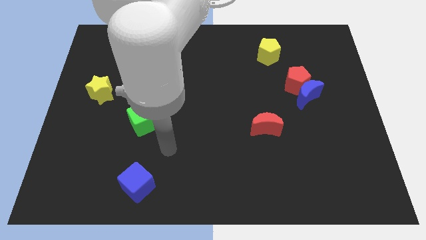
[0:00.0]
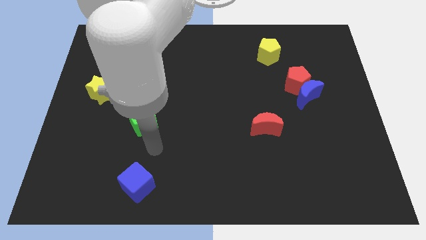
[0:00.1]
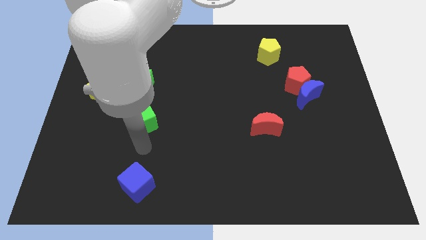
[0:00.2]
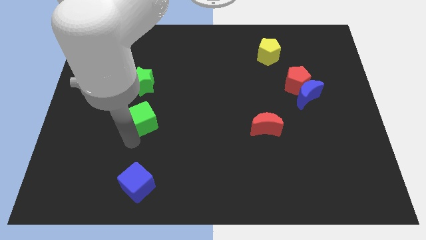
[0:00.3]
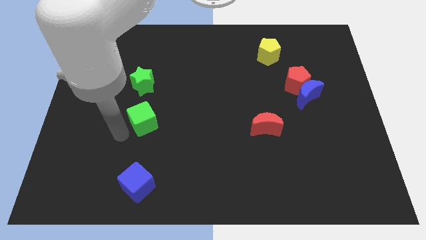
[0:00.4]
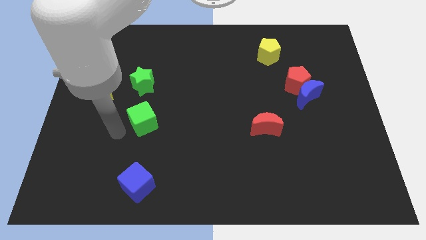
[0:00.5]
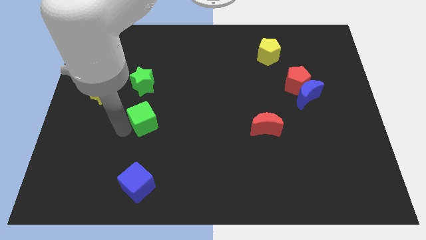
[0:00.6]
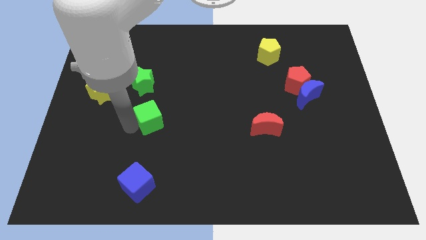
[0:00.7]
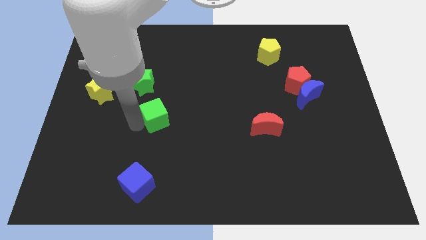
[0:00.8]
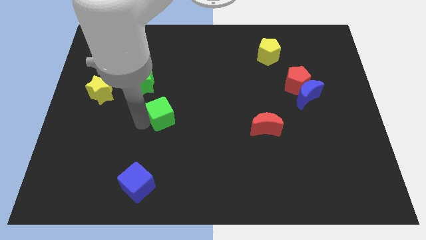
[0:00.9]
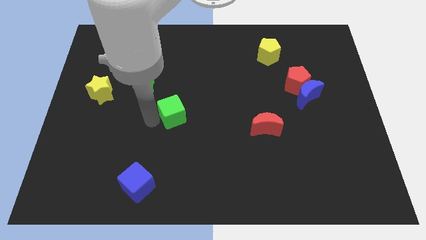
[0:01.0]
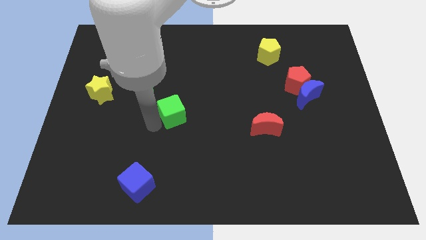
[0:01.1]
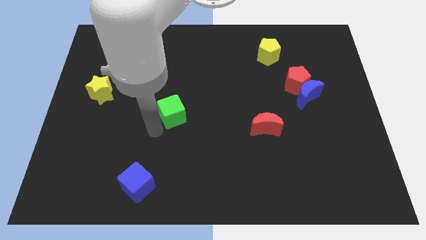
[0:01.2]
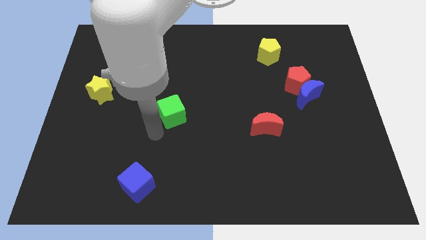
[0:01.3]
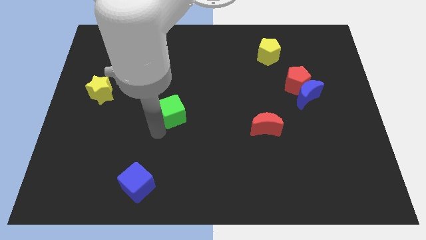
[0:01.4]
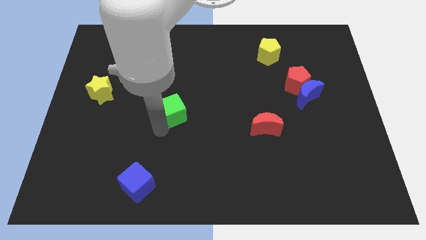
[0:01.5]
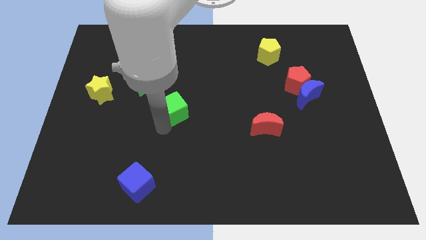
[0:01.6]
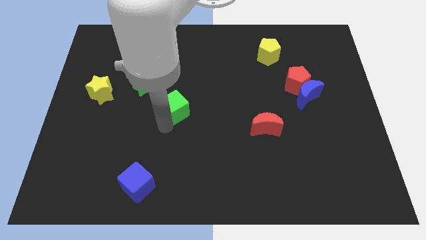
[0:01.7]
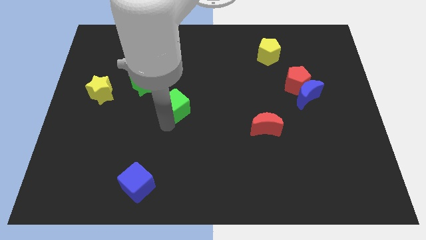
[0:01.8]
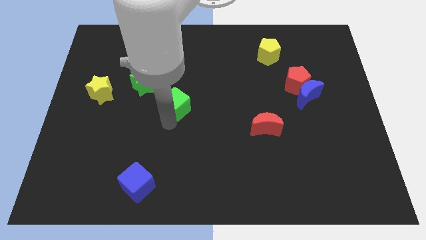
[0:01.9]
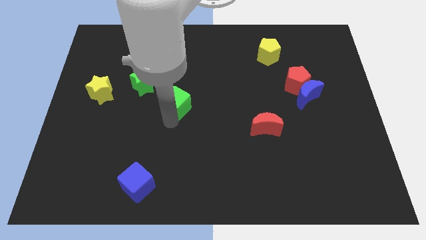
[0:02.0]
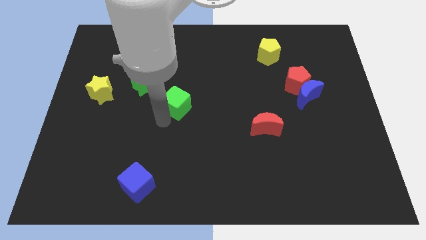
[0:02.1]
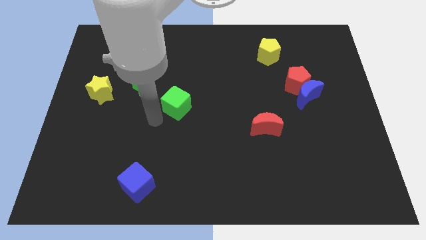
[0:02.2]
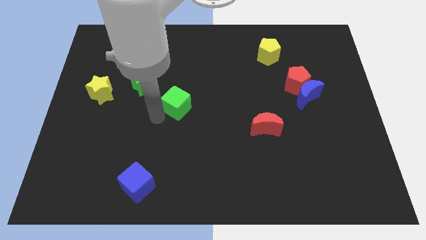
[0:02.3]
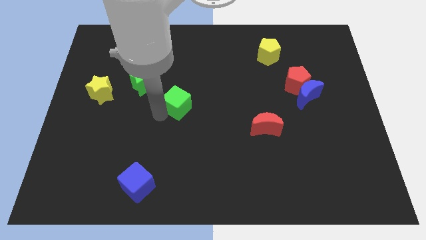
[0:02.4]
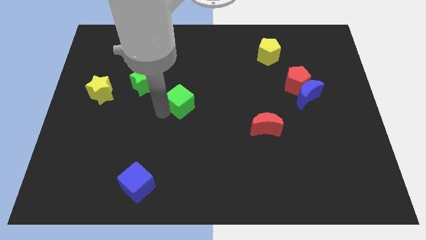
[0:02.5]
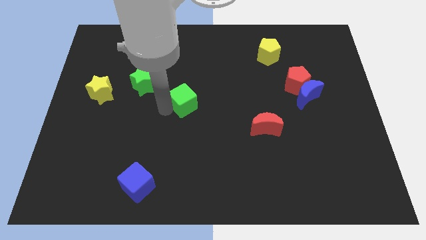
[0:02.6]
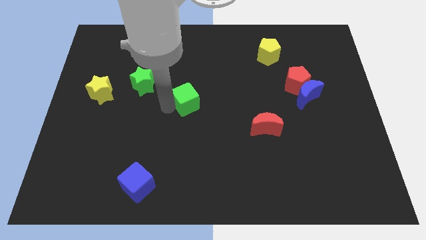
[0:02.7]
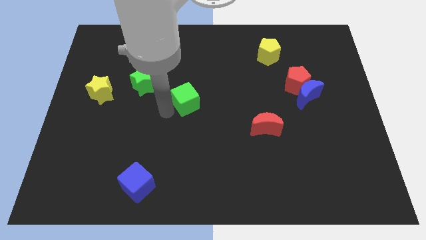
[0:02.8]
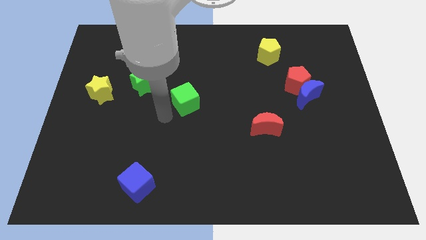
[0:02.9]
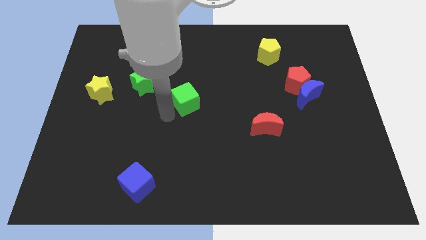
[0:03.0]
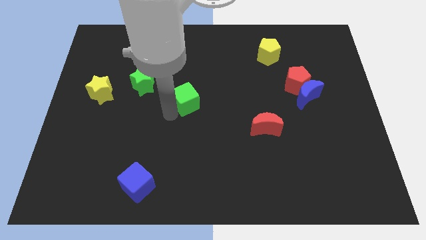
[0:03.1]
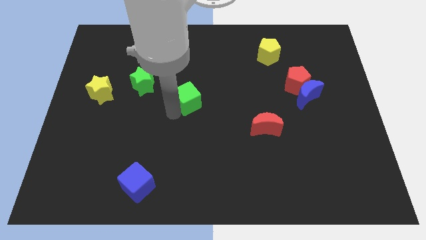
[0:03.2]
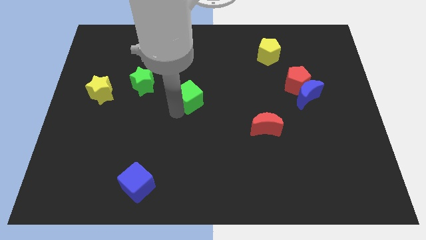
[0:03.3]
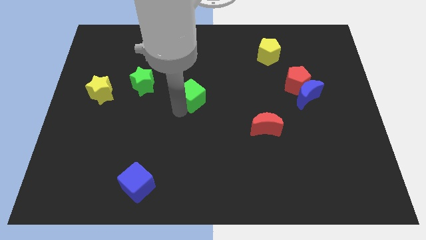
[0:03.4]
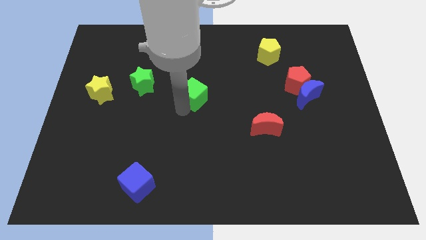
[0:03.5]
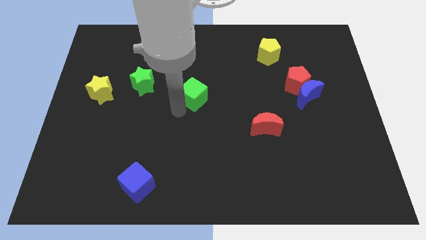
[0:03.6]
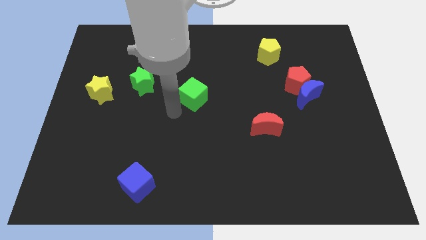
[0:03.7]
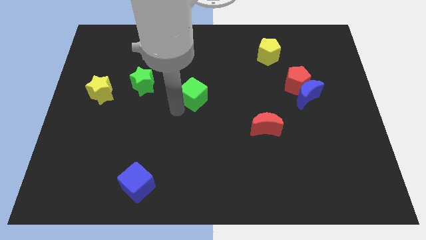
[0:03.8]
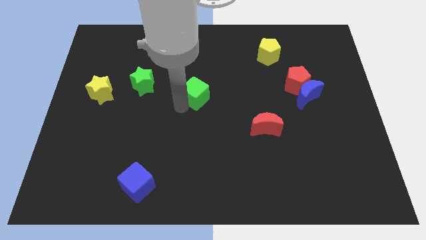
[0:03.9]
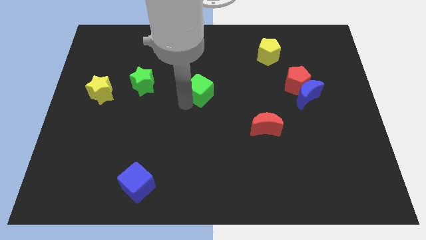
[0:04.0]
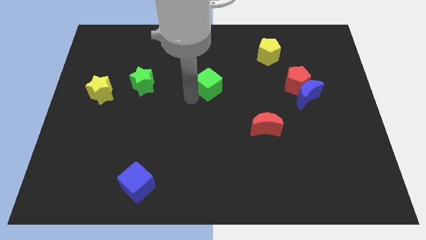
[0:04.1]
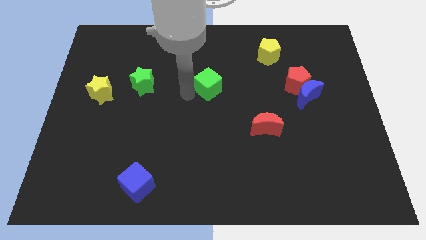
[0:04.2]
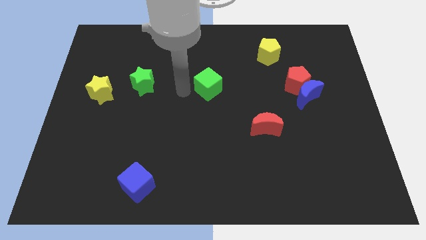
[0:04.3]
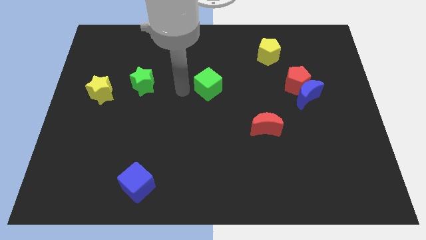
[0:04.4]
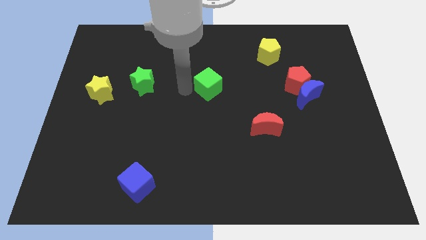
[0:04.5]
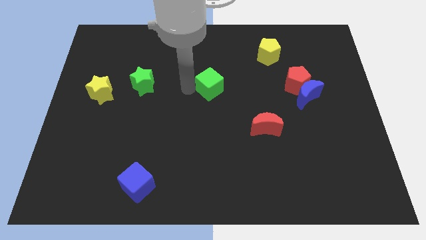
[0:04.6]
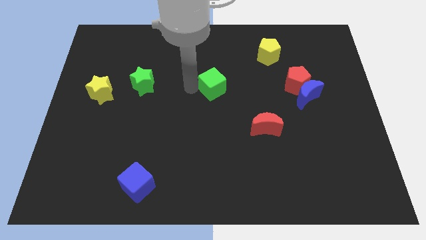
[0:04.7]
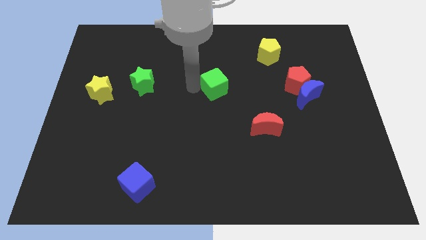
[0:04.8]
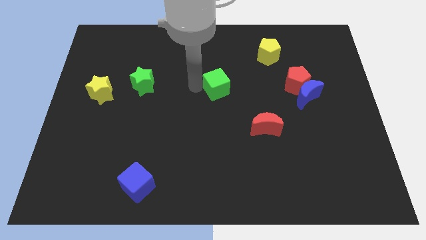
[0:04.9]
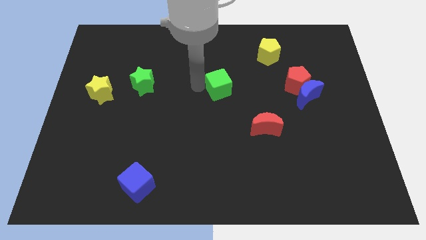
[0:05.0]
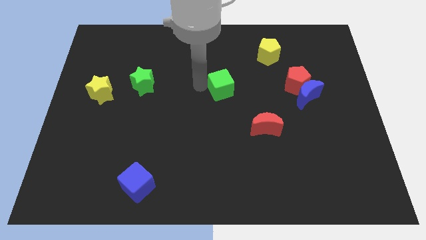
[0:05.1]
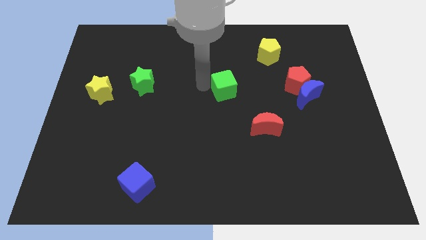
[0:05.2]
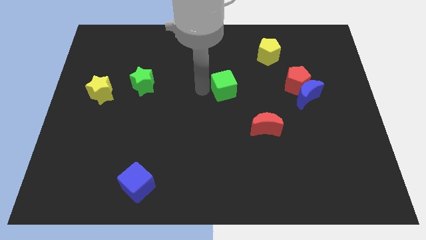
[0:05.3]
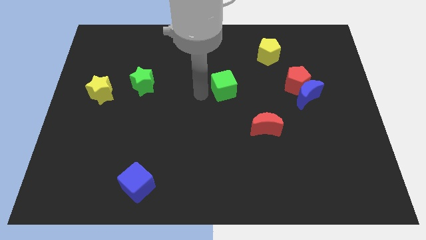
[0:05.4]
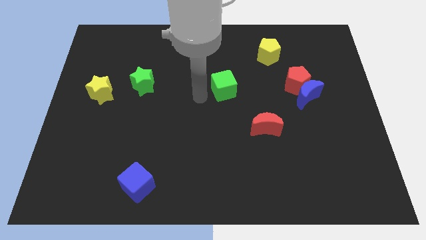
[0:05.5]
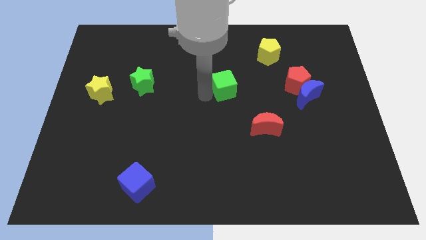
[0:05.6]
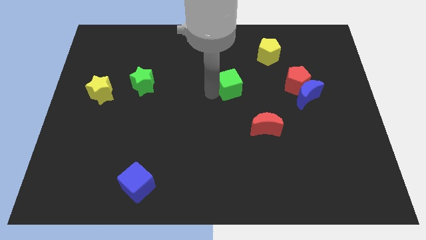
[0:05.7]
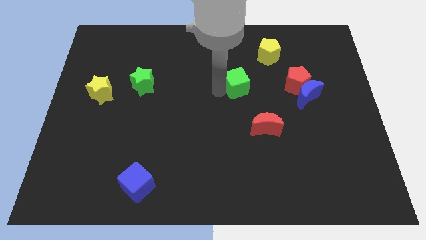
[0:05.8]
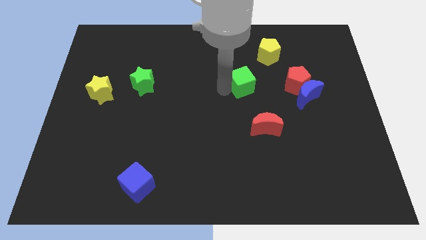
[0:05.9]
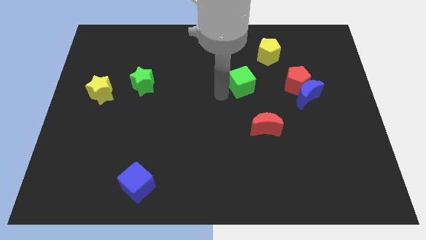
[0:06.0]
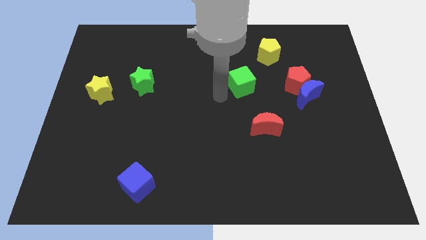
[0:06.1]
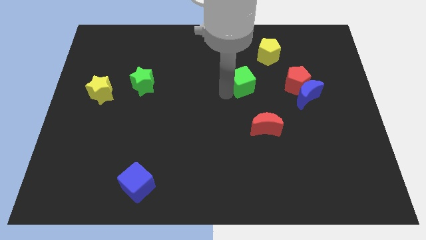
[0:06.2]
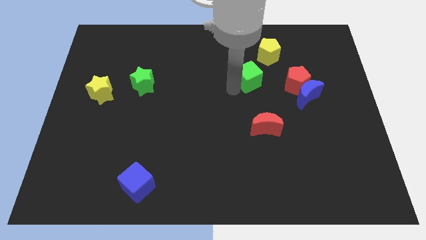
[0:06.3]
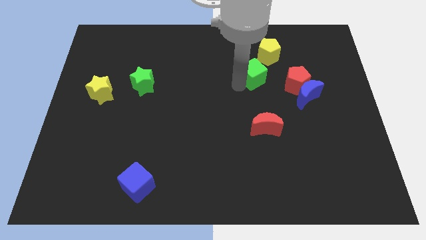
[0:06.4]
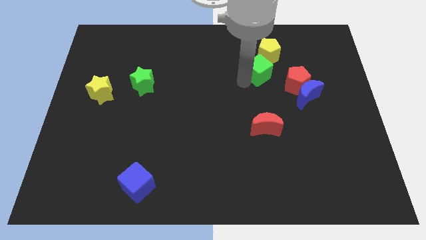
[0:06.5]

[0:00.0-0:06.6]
put the green cube to the top left side of the red pentagon

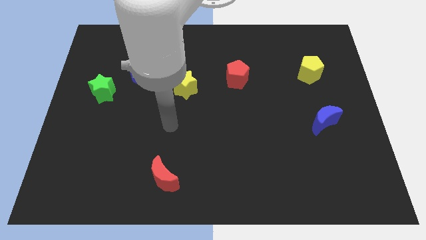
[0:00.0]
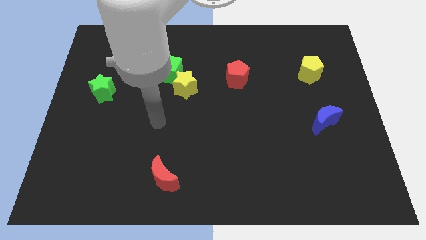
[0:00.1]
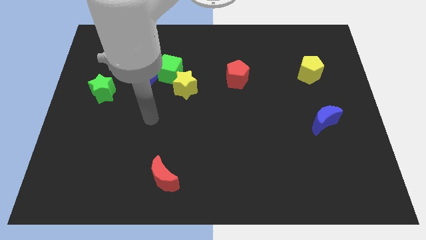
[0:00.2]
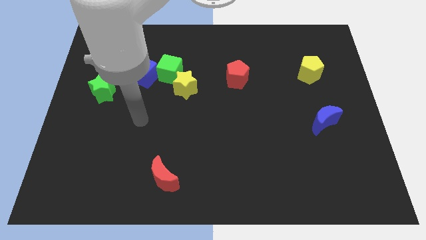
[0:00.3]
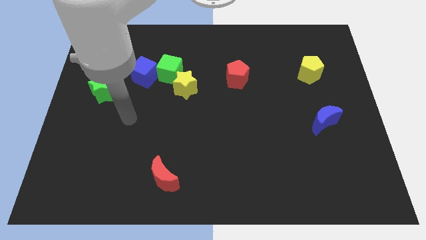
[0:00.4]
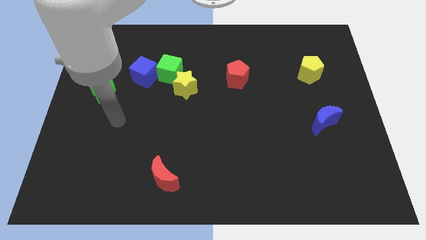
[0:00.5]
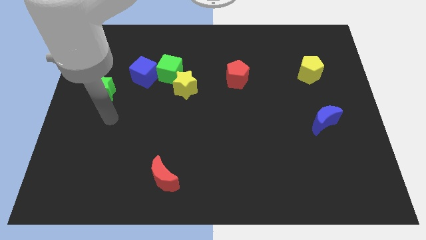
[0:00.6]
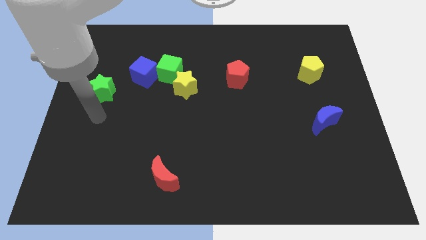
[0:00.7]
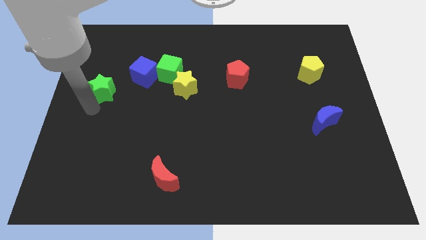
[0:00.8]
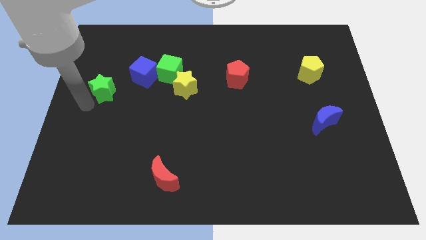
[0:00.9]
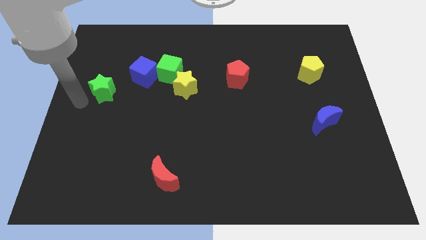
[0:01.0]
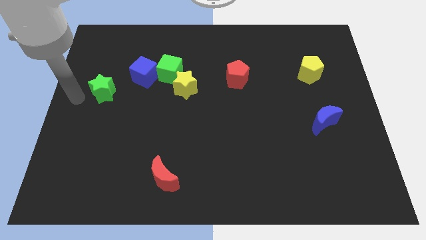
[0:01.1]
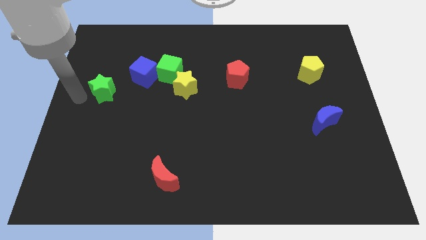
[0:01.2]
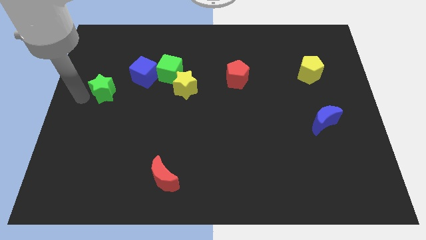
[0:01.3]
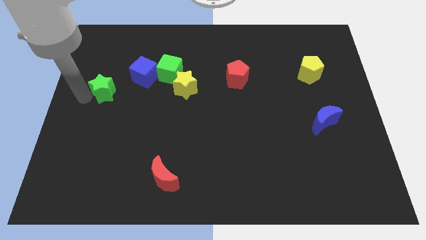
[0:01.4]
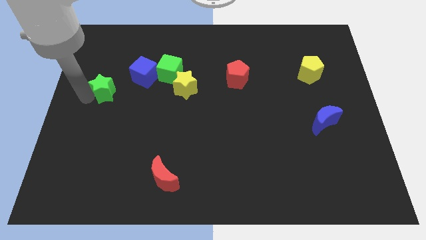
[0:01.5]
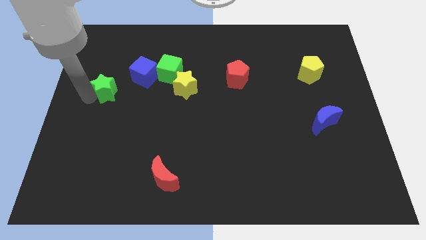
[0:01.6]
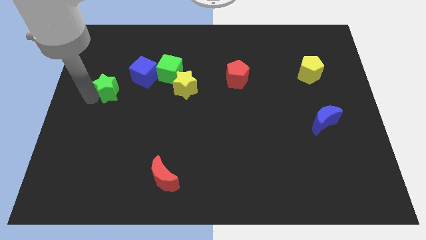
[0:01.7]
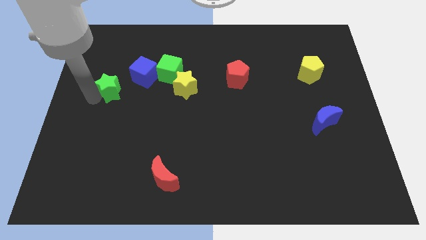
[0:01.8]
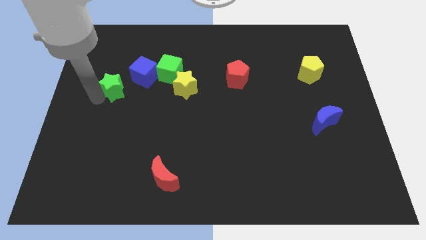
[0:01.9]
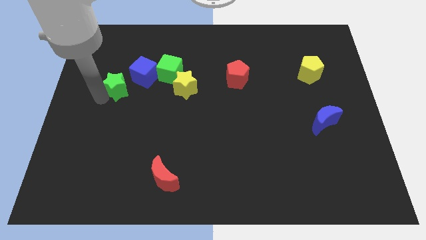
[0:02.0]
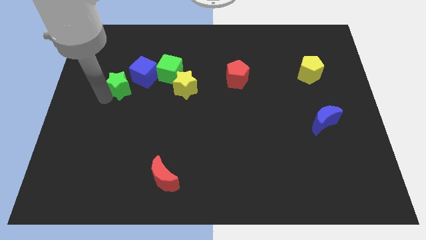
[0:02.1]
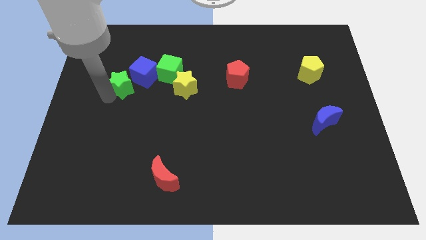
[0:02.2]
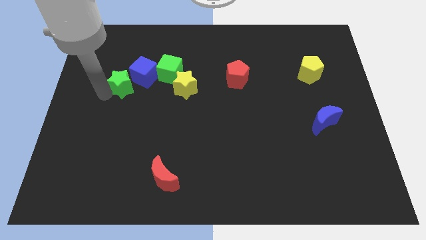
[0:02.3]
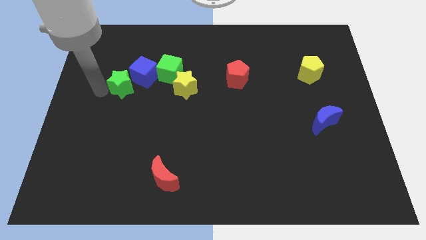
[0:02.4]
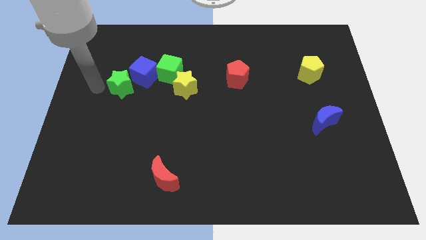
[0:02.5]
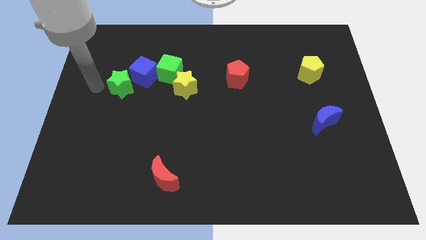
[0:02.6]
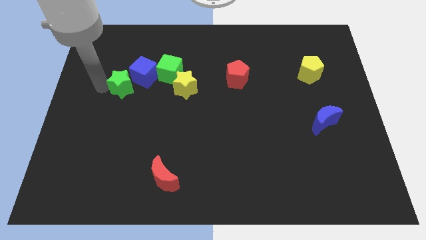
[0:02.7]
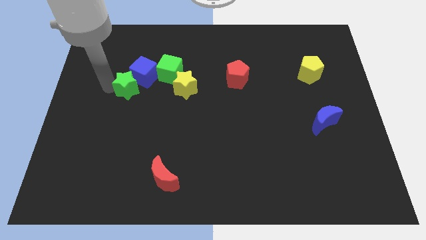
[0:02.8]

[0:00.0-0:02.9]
move the green star to the bottom left of the green cube
